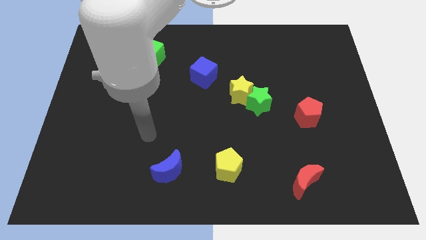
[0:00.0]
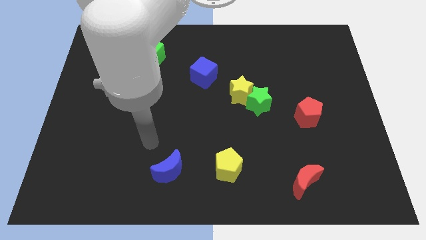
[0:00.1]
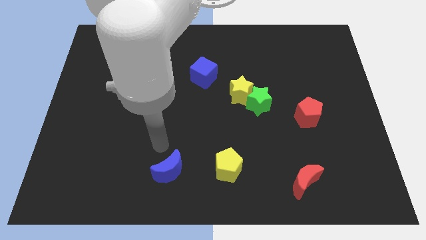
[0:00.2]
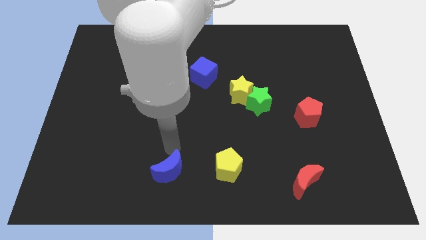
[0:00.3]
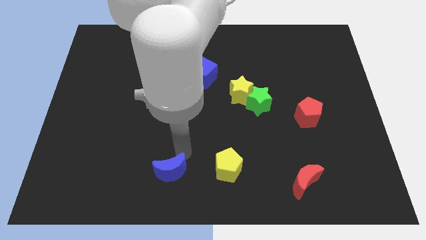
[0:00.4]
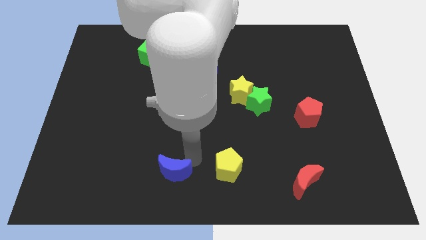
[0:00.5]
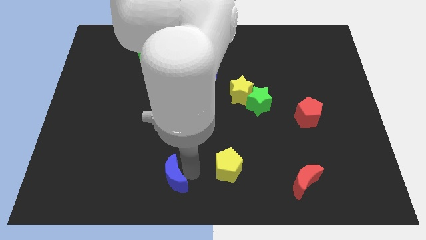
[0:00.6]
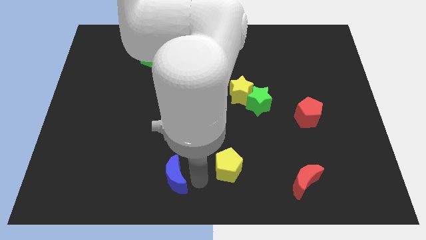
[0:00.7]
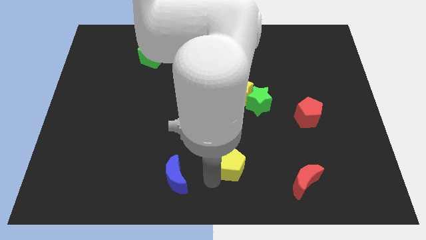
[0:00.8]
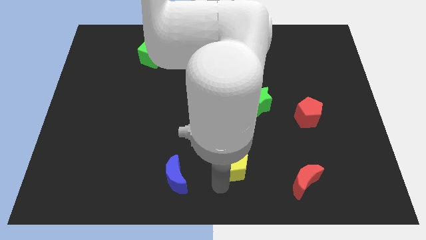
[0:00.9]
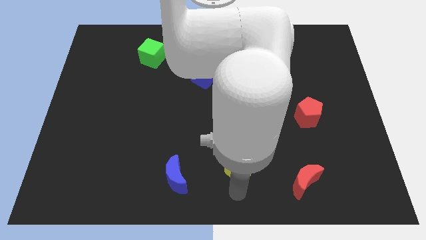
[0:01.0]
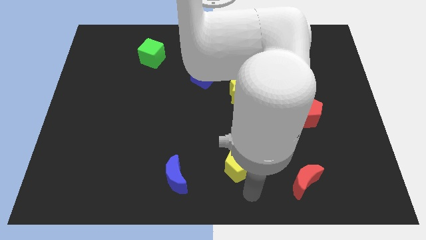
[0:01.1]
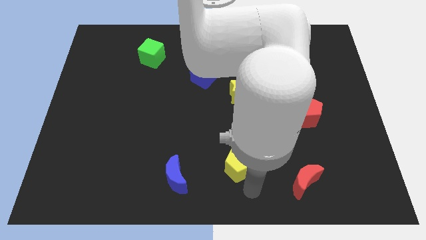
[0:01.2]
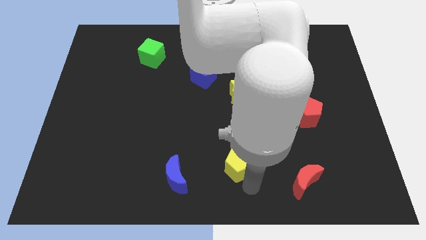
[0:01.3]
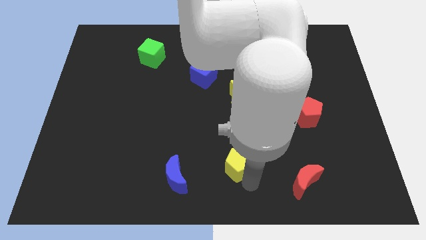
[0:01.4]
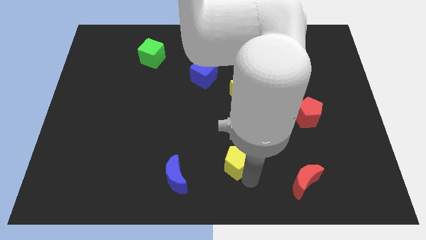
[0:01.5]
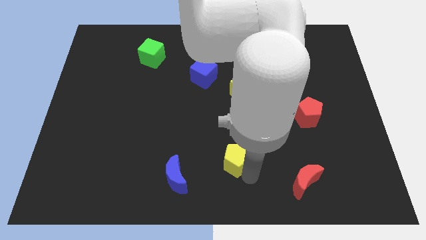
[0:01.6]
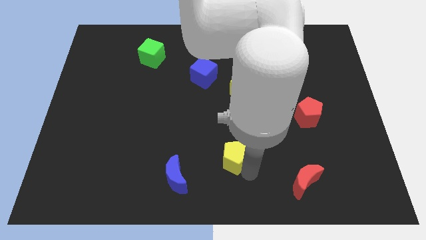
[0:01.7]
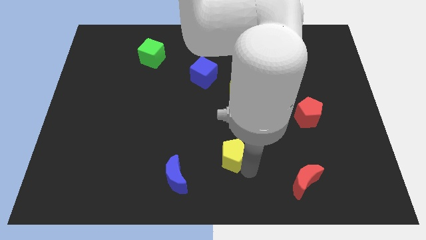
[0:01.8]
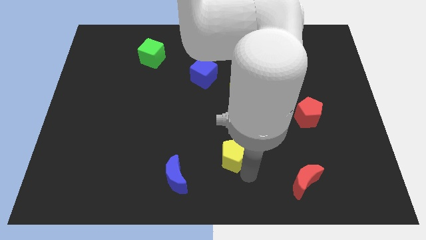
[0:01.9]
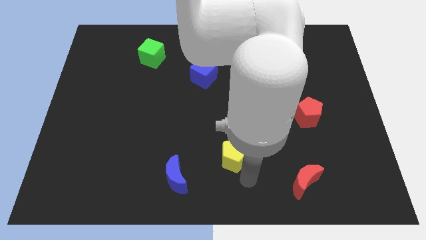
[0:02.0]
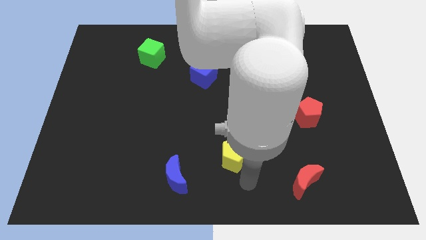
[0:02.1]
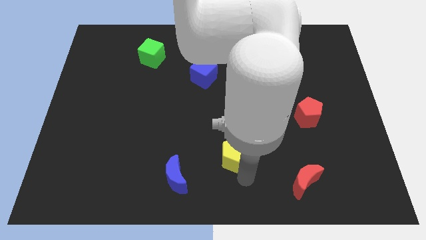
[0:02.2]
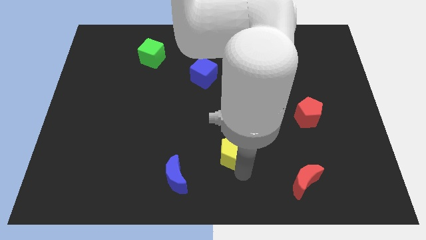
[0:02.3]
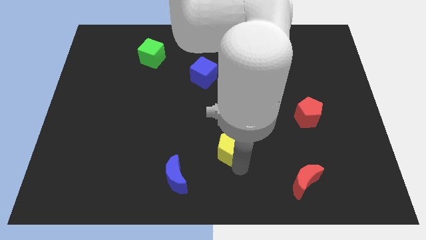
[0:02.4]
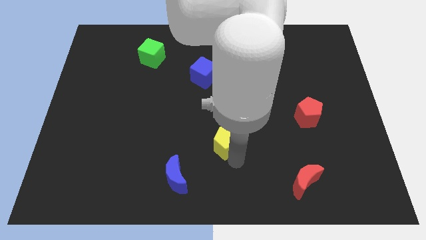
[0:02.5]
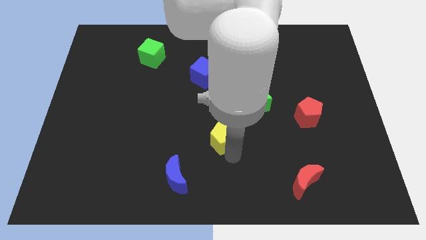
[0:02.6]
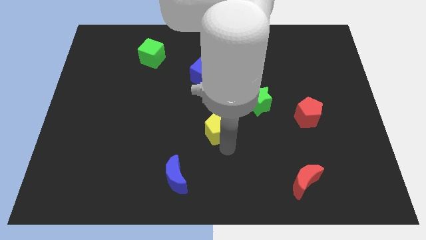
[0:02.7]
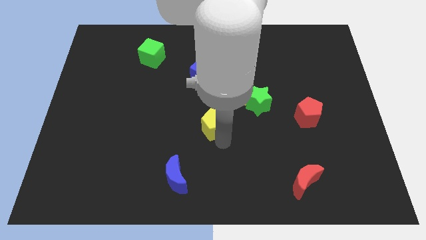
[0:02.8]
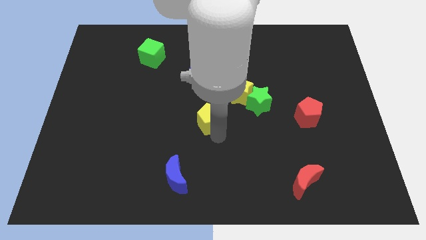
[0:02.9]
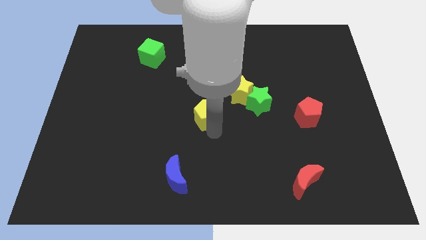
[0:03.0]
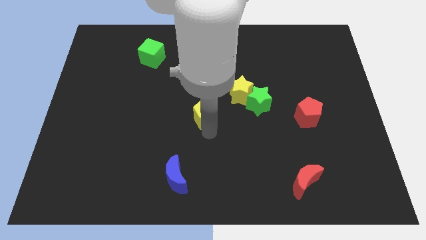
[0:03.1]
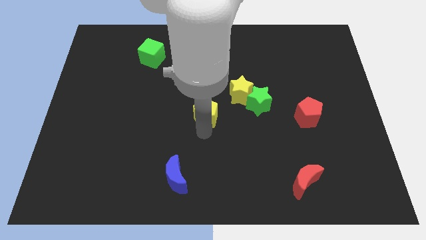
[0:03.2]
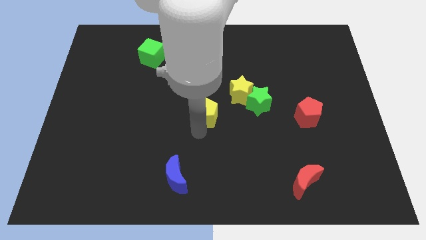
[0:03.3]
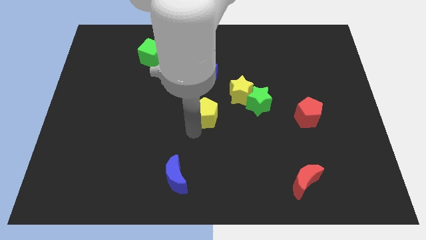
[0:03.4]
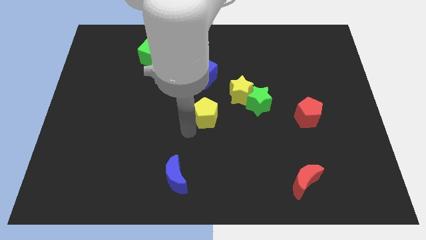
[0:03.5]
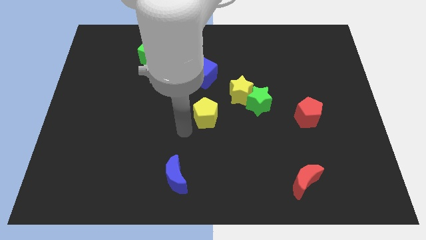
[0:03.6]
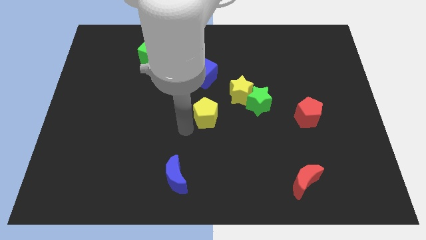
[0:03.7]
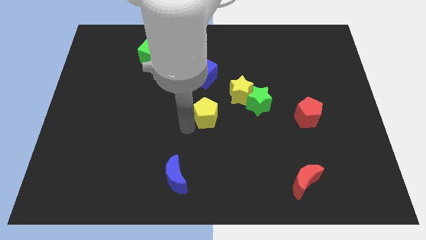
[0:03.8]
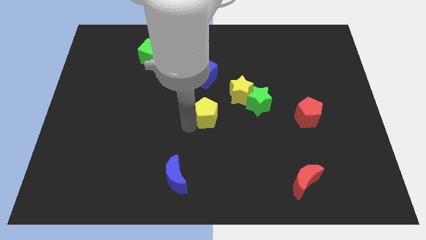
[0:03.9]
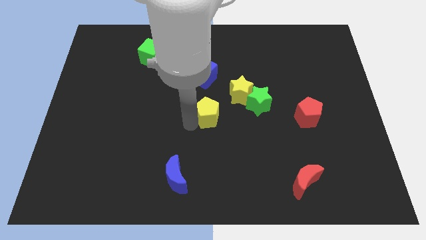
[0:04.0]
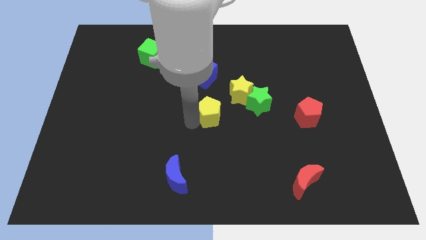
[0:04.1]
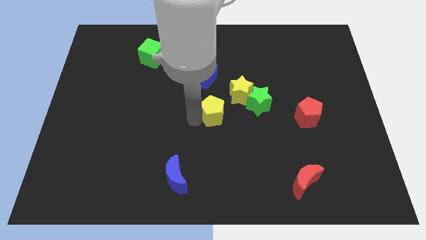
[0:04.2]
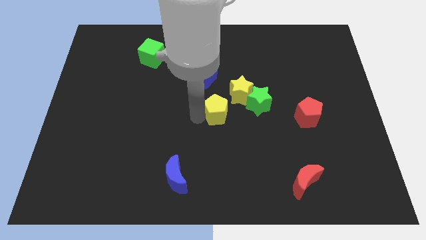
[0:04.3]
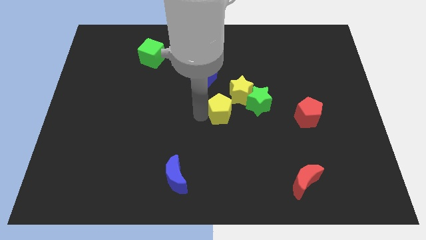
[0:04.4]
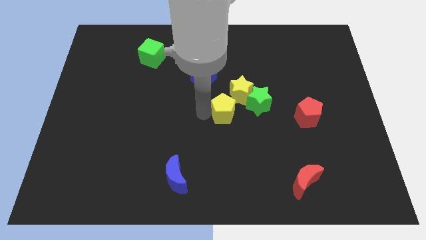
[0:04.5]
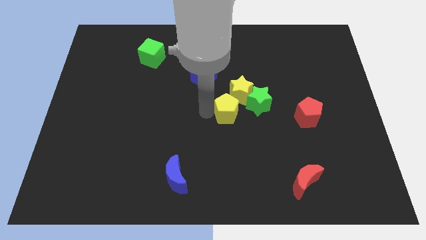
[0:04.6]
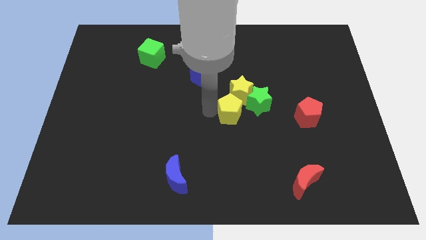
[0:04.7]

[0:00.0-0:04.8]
push the yellow pentagon next to the yellow star

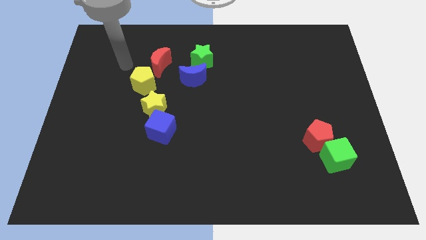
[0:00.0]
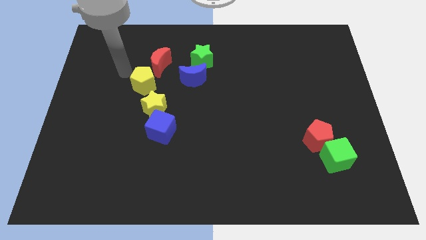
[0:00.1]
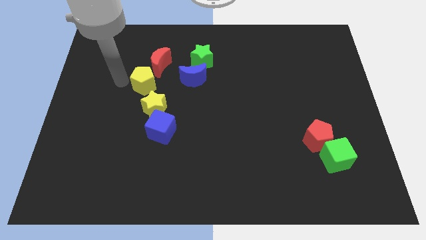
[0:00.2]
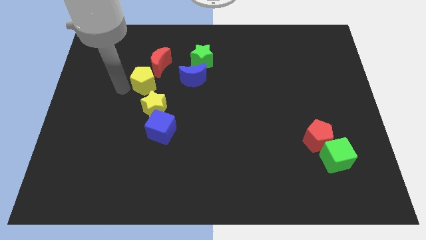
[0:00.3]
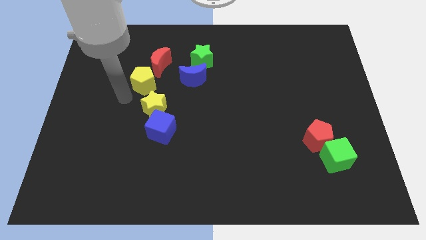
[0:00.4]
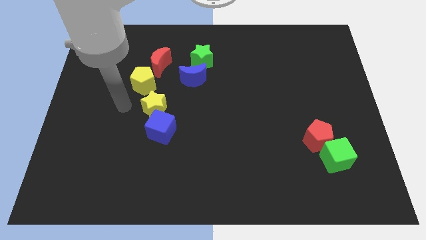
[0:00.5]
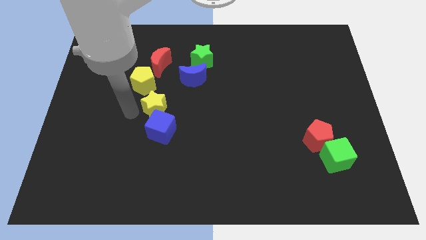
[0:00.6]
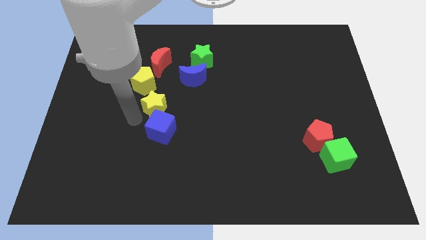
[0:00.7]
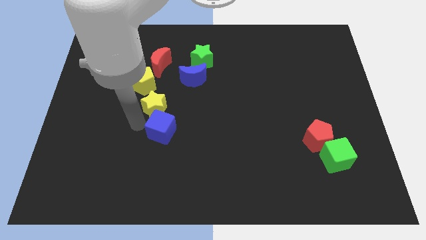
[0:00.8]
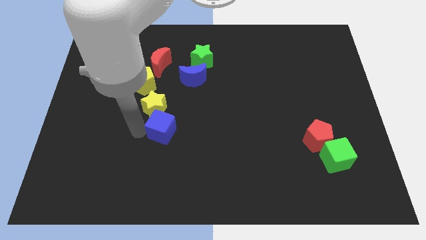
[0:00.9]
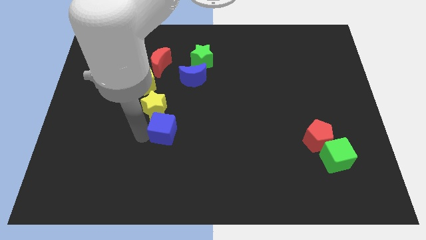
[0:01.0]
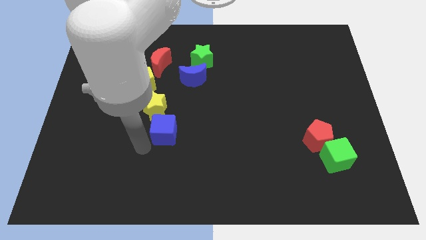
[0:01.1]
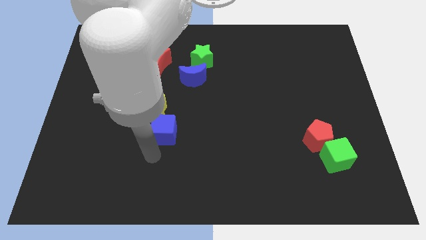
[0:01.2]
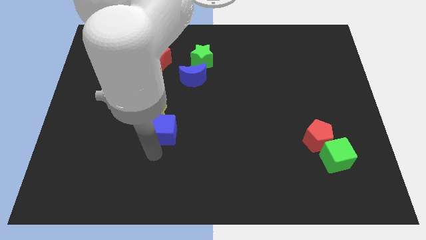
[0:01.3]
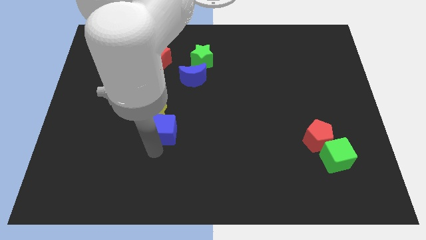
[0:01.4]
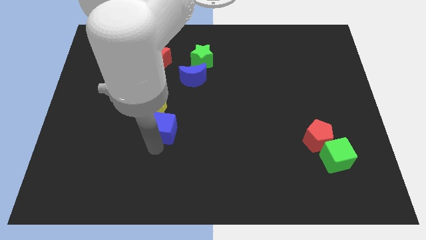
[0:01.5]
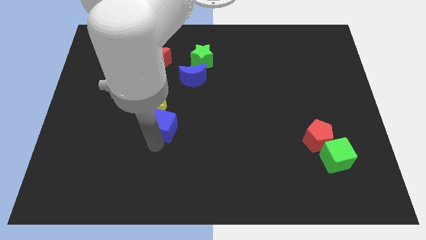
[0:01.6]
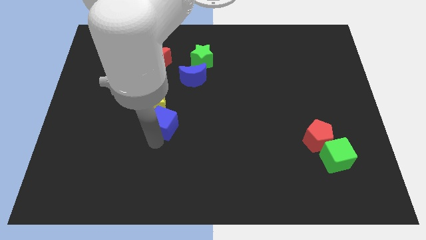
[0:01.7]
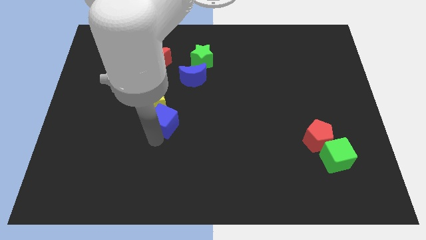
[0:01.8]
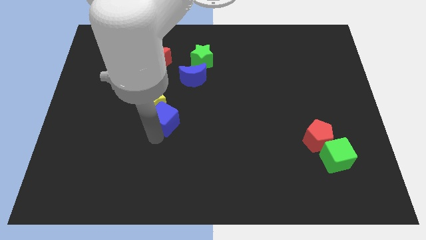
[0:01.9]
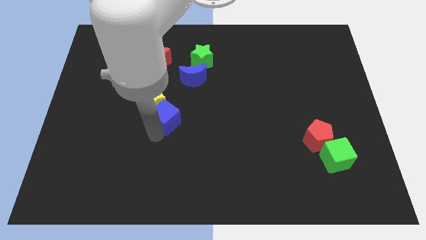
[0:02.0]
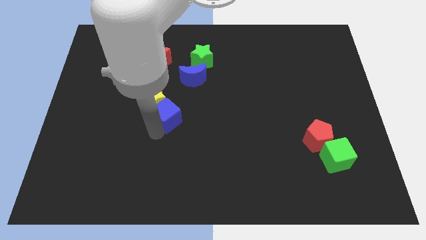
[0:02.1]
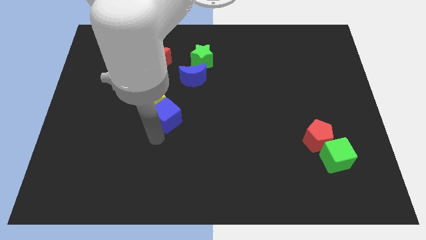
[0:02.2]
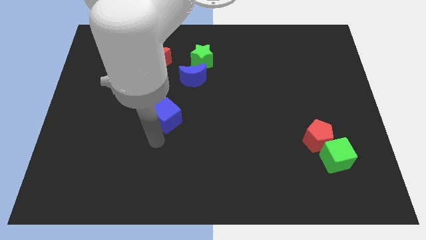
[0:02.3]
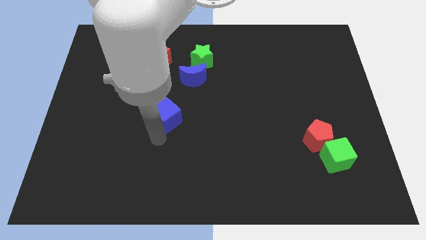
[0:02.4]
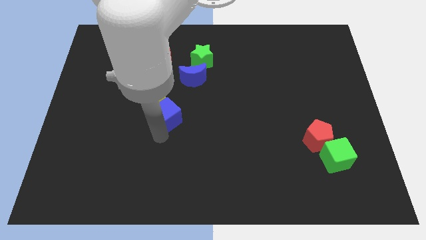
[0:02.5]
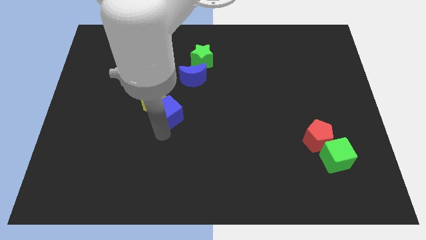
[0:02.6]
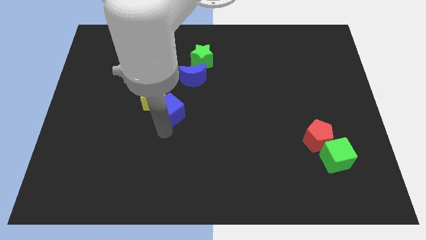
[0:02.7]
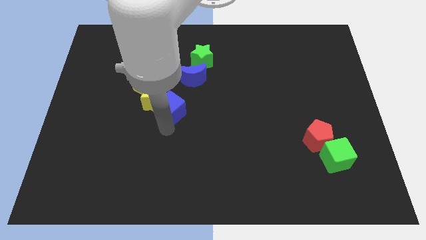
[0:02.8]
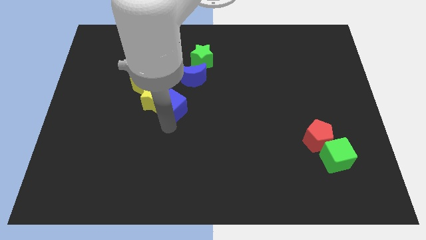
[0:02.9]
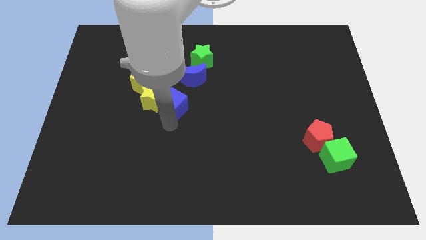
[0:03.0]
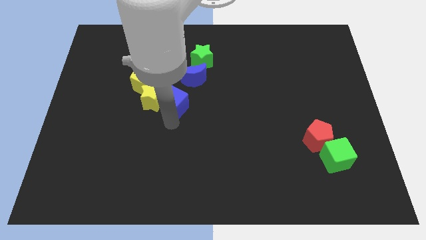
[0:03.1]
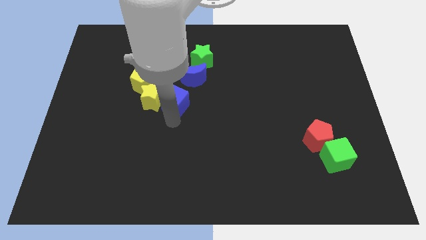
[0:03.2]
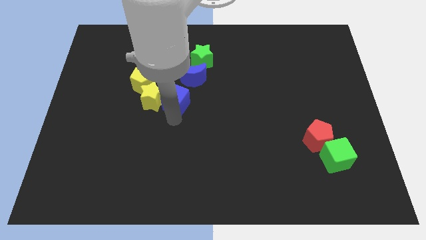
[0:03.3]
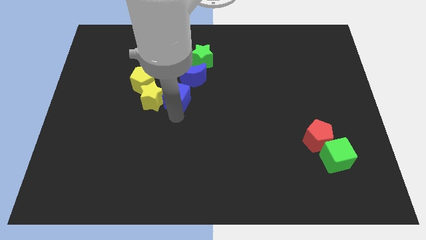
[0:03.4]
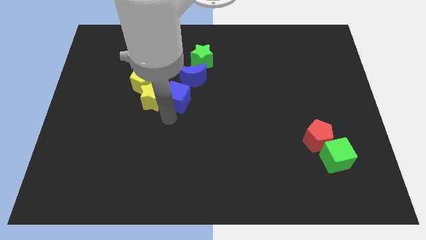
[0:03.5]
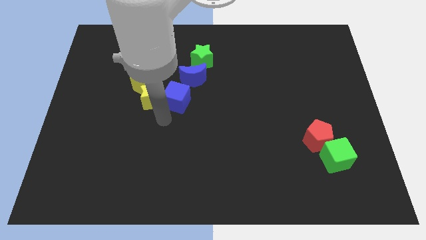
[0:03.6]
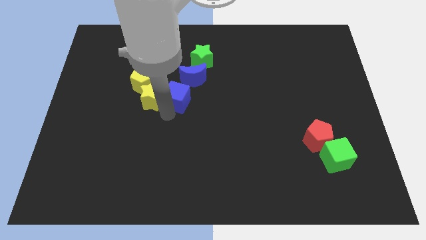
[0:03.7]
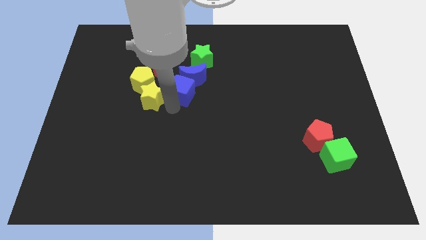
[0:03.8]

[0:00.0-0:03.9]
push the blue cube towards the blue moon
